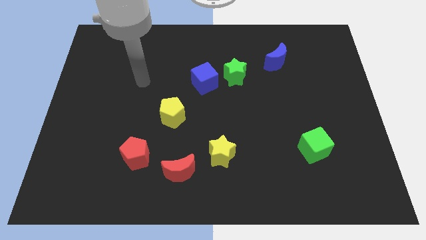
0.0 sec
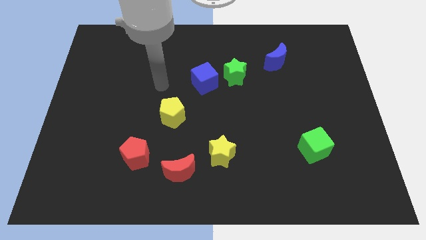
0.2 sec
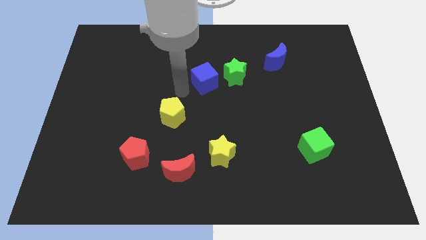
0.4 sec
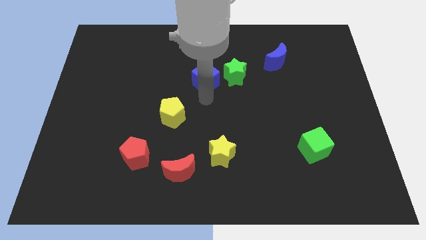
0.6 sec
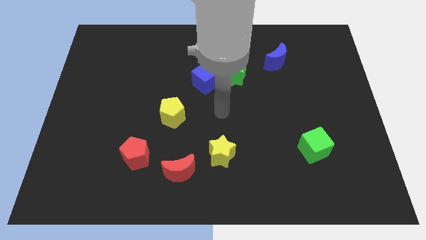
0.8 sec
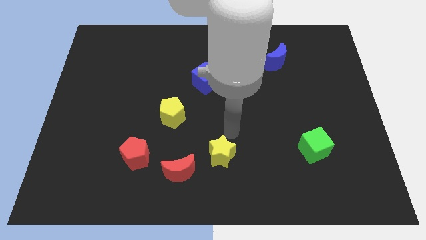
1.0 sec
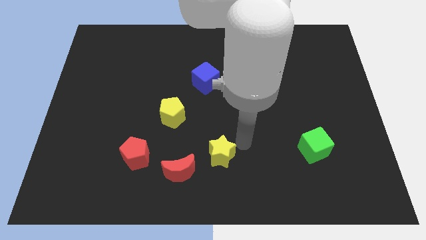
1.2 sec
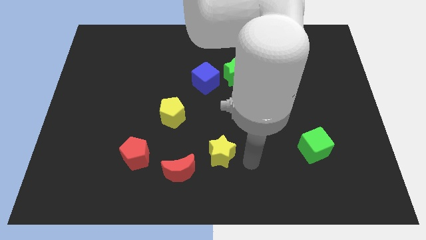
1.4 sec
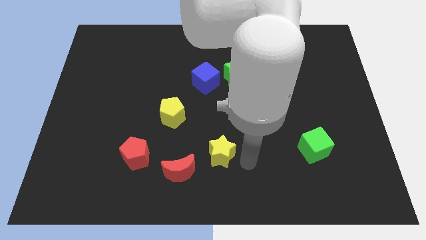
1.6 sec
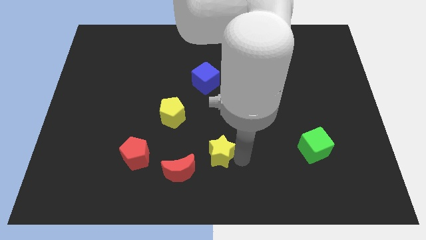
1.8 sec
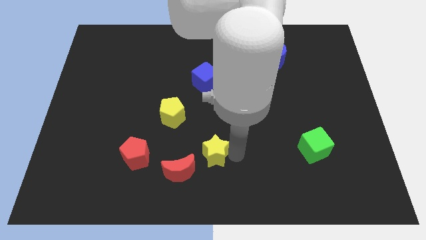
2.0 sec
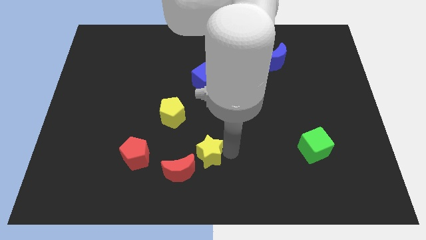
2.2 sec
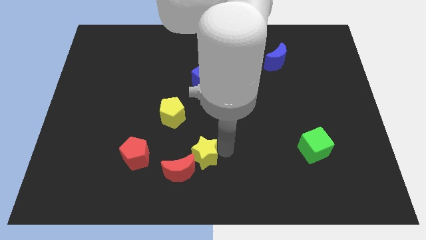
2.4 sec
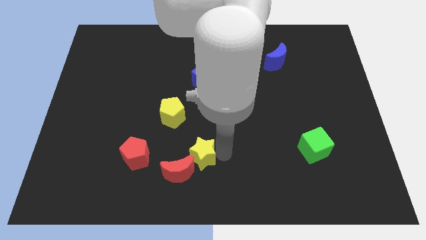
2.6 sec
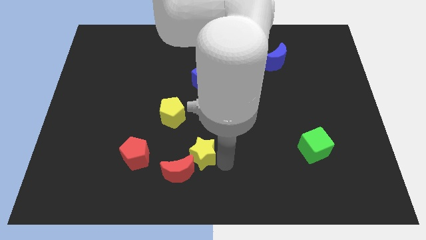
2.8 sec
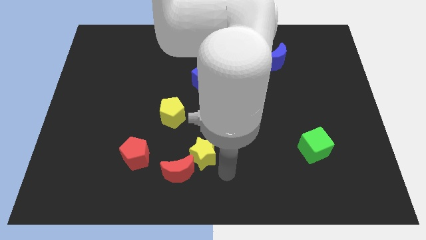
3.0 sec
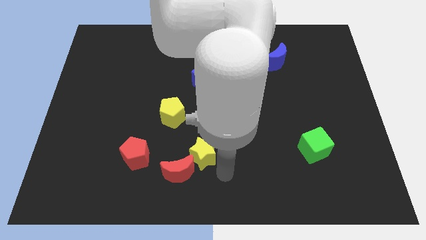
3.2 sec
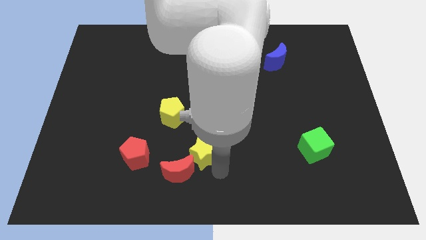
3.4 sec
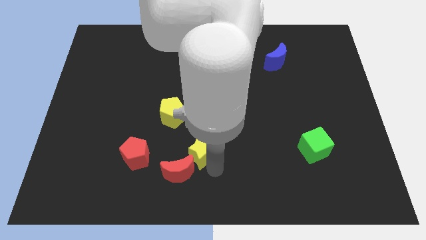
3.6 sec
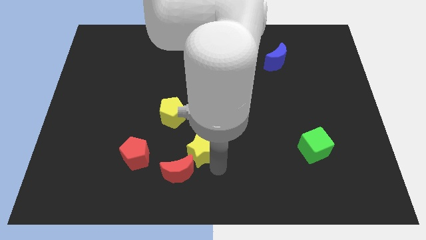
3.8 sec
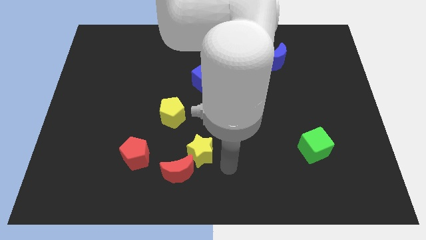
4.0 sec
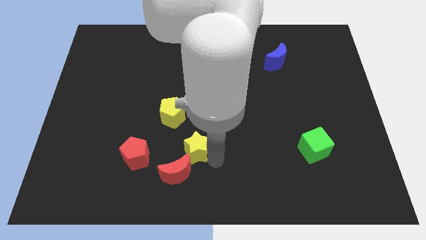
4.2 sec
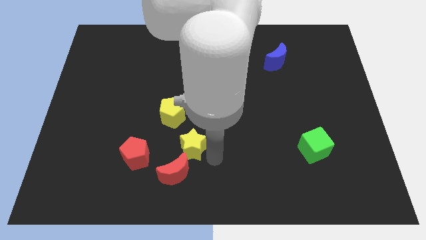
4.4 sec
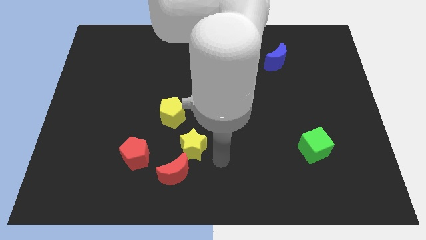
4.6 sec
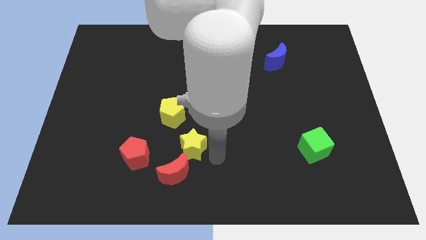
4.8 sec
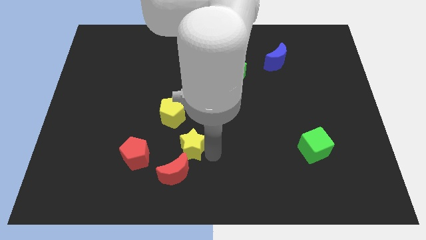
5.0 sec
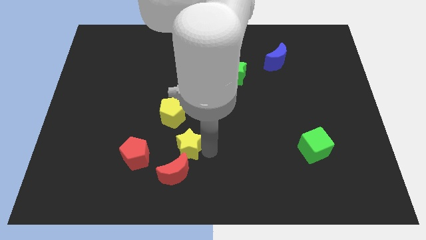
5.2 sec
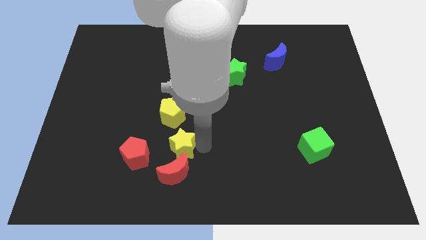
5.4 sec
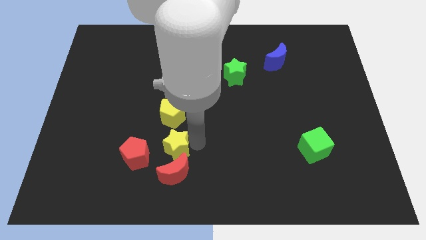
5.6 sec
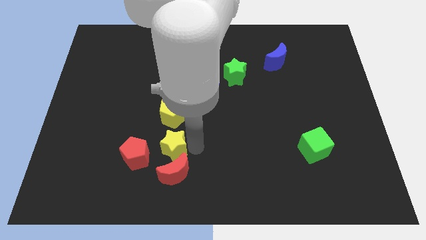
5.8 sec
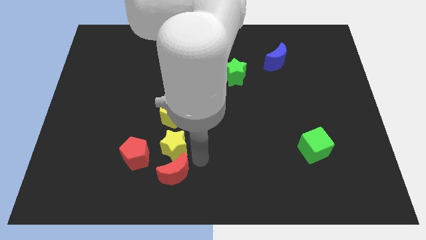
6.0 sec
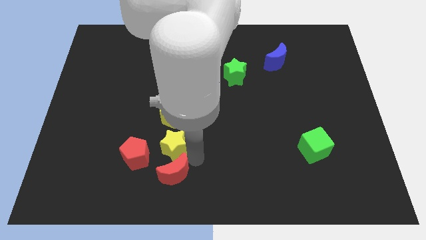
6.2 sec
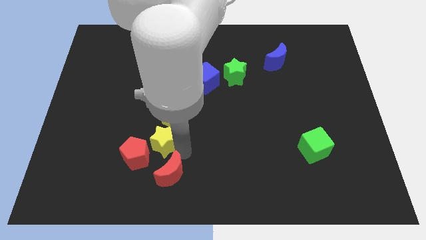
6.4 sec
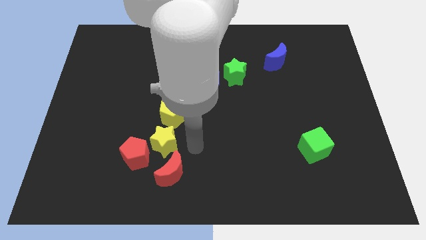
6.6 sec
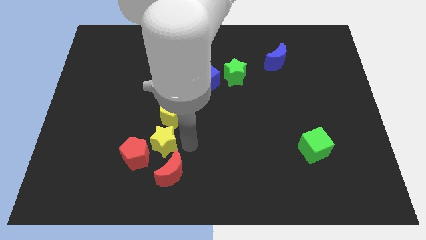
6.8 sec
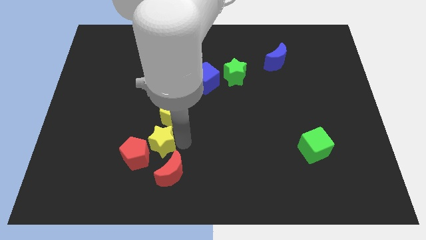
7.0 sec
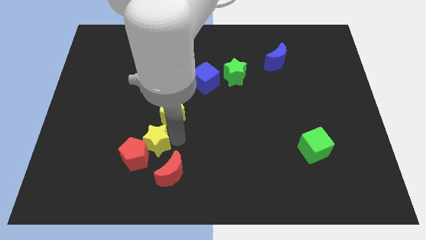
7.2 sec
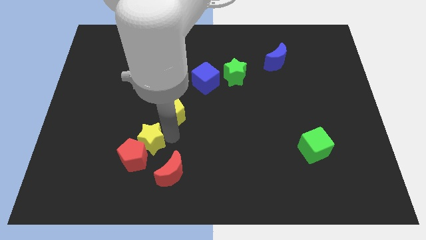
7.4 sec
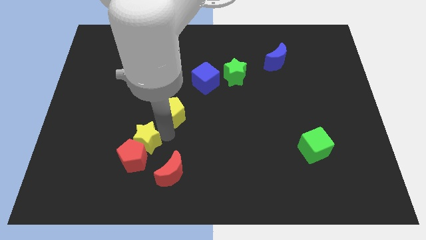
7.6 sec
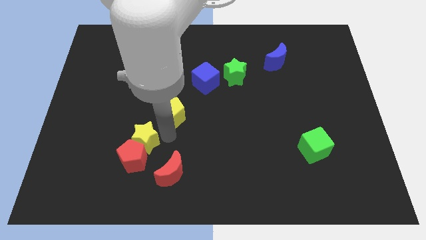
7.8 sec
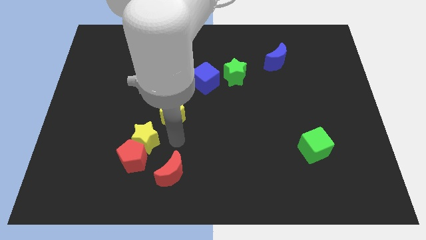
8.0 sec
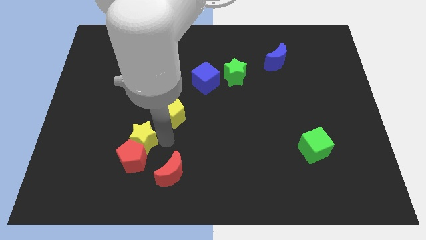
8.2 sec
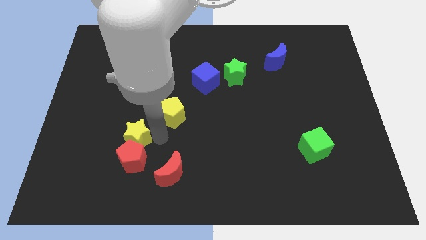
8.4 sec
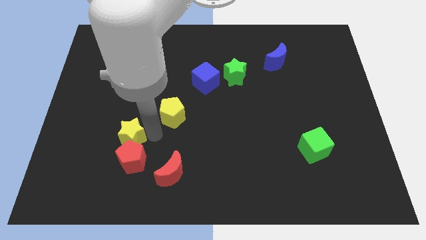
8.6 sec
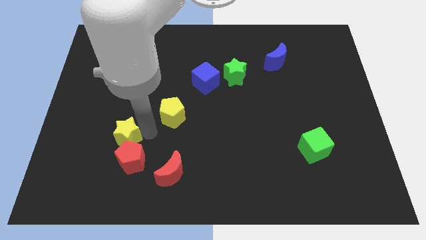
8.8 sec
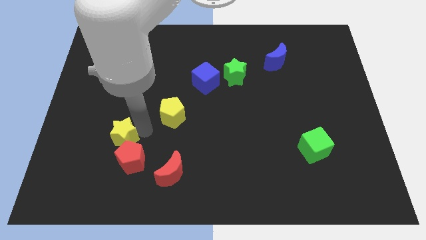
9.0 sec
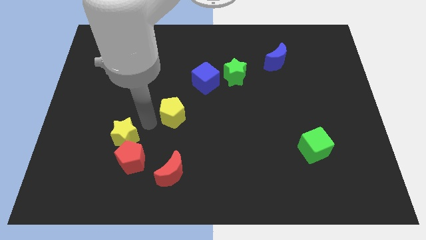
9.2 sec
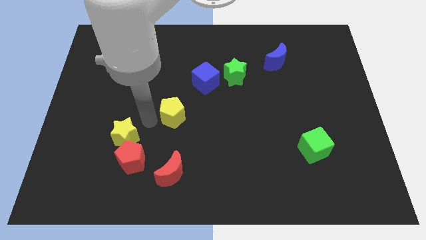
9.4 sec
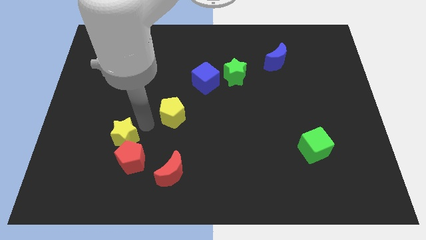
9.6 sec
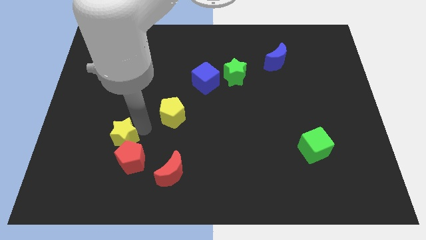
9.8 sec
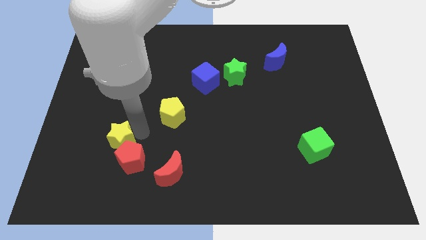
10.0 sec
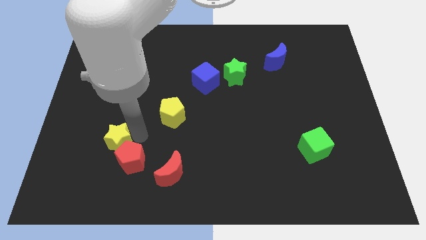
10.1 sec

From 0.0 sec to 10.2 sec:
move the yellow star left of the red pentagon

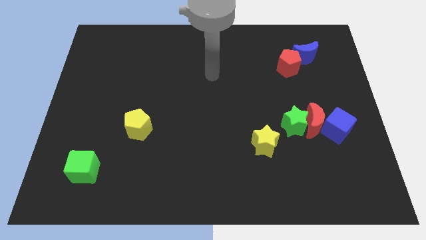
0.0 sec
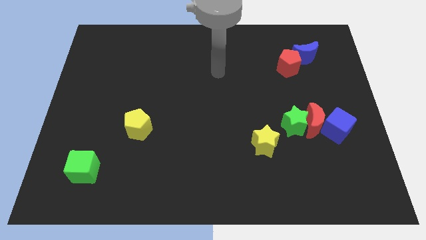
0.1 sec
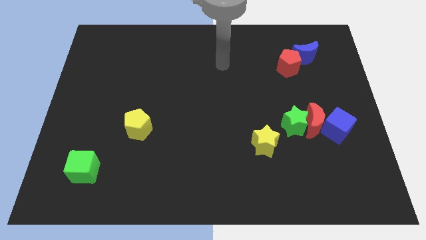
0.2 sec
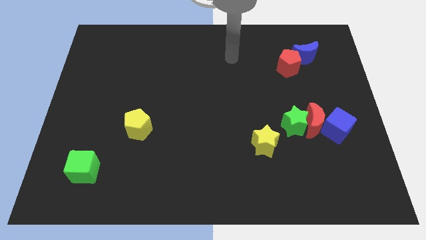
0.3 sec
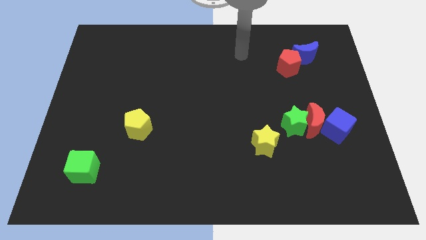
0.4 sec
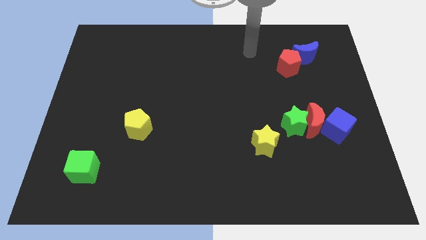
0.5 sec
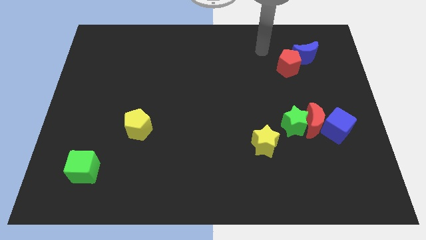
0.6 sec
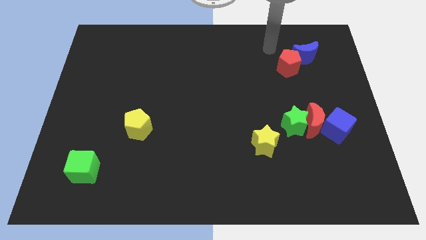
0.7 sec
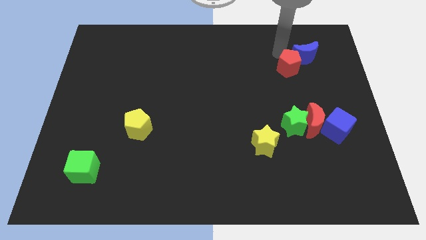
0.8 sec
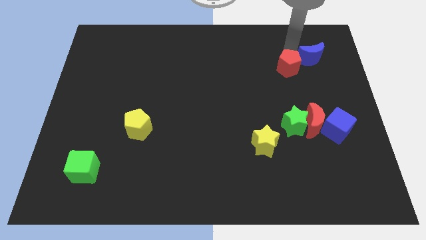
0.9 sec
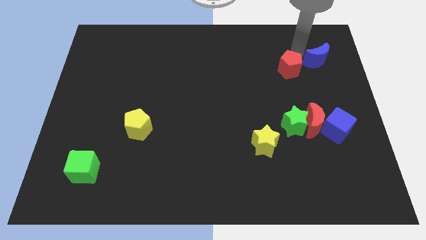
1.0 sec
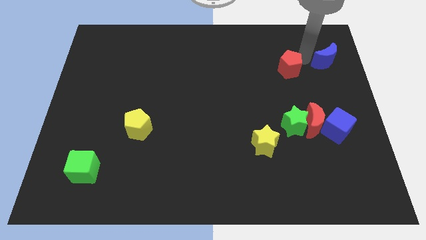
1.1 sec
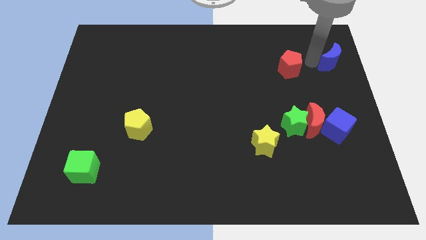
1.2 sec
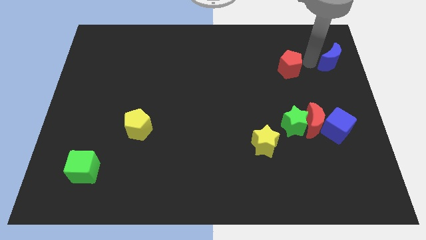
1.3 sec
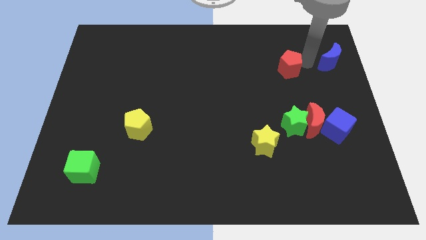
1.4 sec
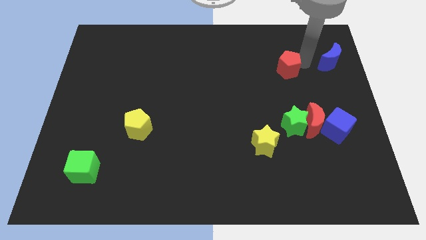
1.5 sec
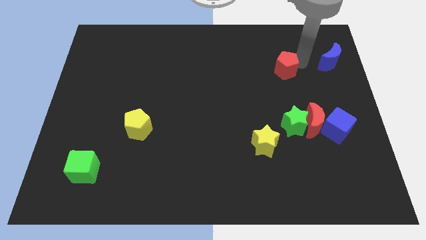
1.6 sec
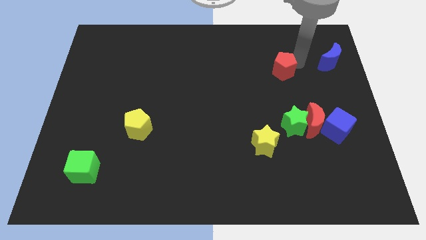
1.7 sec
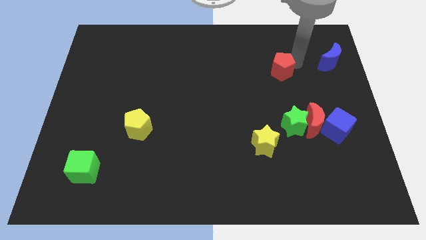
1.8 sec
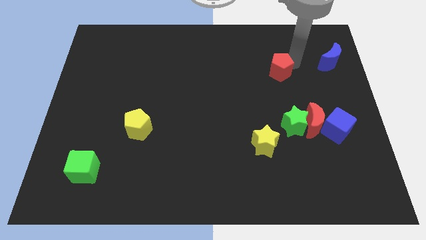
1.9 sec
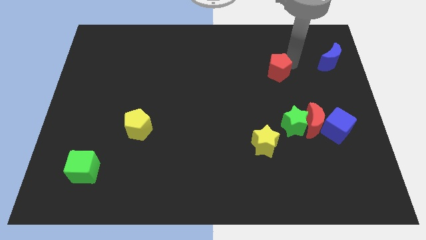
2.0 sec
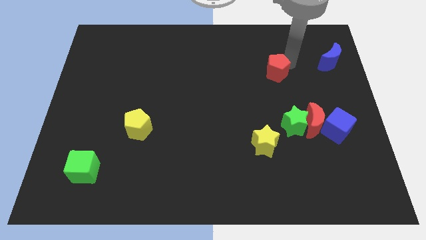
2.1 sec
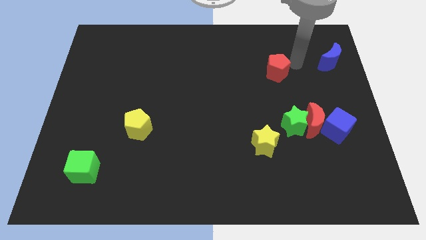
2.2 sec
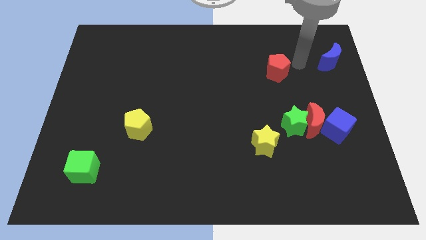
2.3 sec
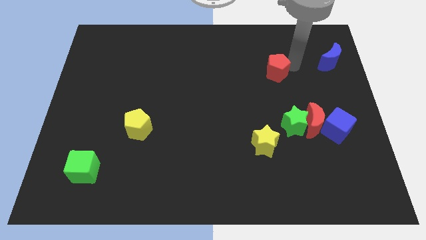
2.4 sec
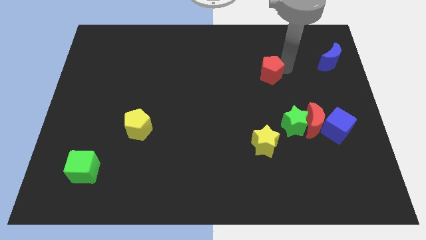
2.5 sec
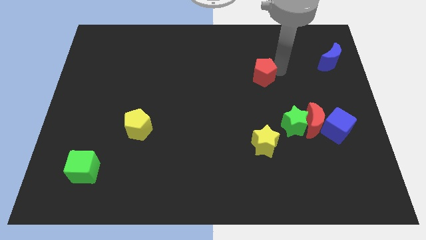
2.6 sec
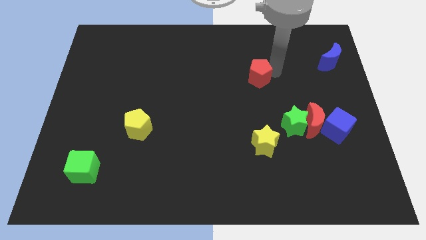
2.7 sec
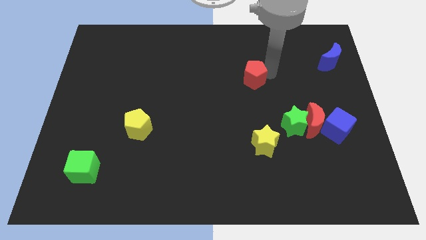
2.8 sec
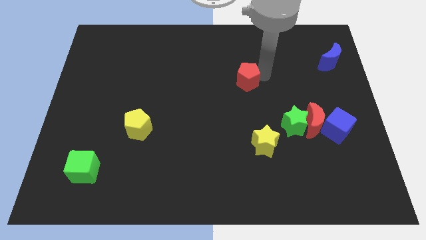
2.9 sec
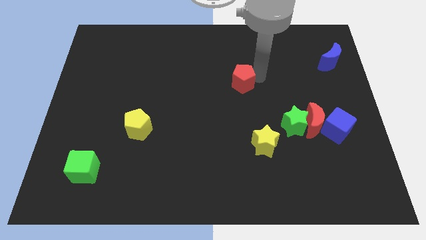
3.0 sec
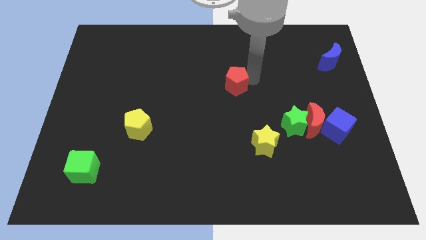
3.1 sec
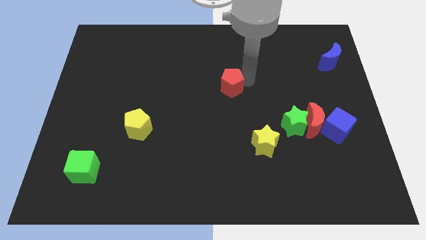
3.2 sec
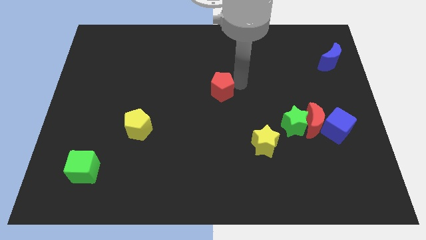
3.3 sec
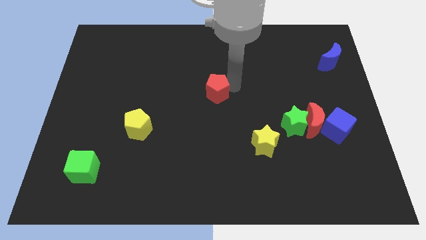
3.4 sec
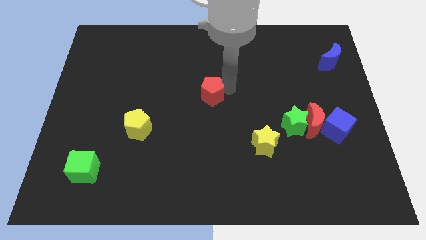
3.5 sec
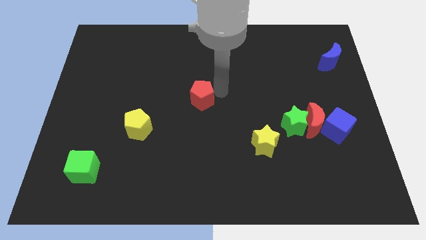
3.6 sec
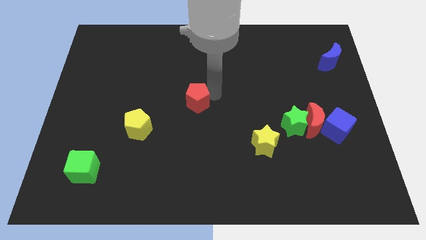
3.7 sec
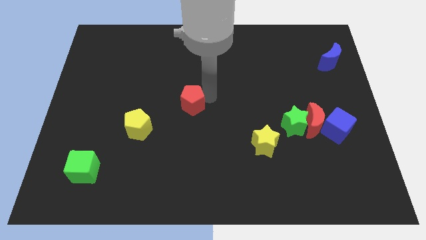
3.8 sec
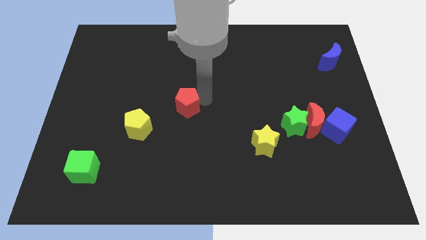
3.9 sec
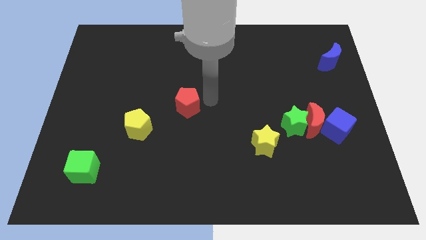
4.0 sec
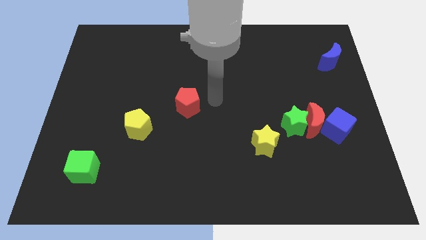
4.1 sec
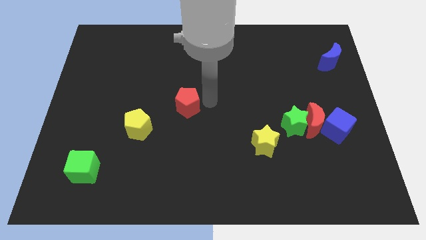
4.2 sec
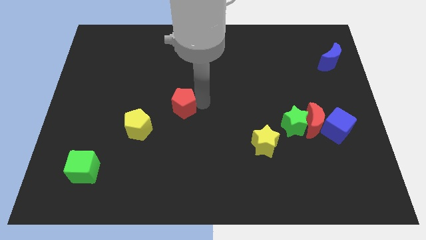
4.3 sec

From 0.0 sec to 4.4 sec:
put the red pentagon to the top right of the yellow pentagon
